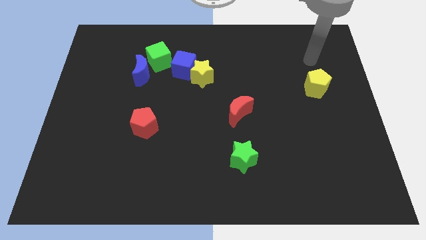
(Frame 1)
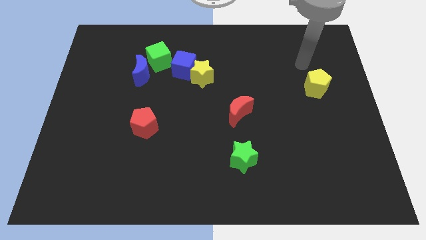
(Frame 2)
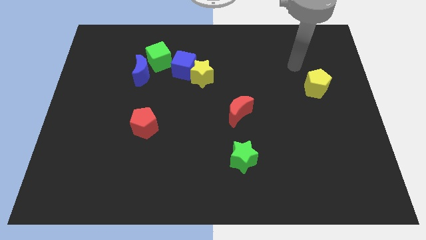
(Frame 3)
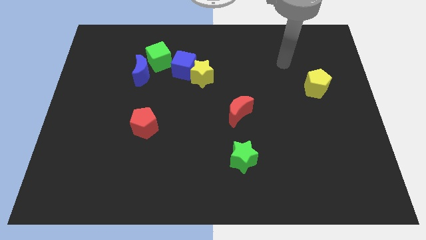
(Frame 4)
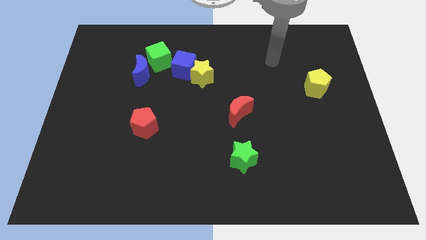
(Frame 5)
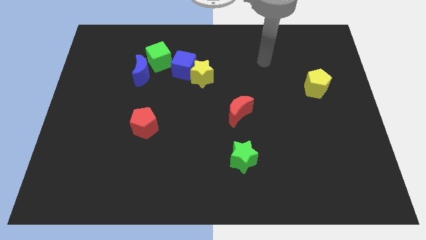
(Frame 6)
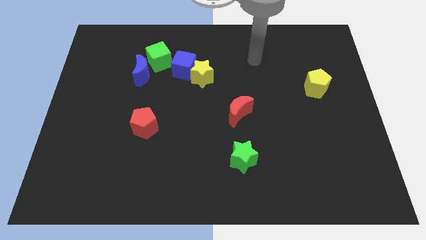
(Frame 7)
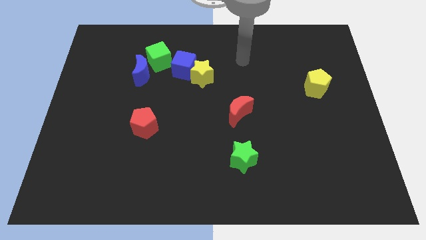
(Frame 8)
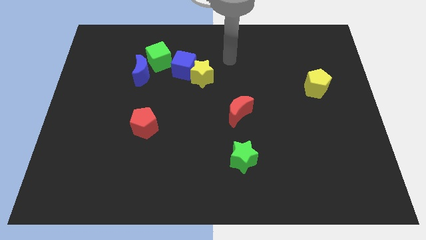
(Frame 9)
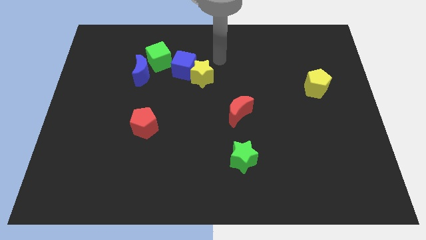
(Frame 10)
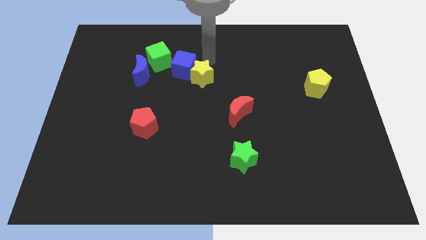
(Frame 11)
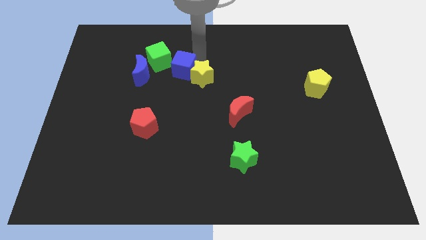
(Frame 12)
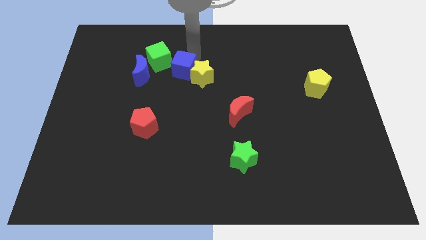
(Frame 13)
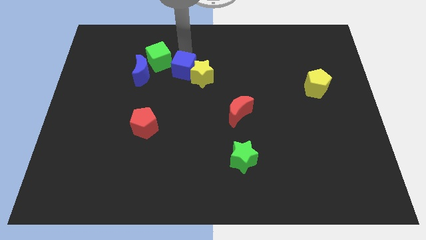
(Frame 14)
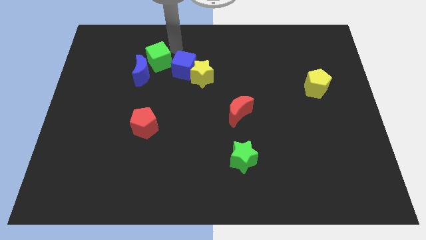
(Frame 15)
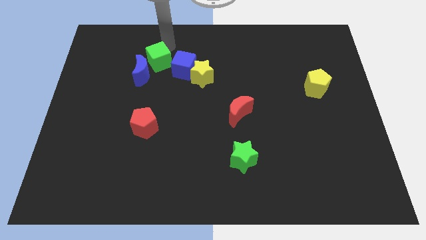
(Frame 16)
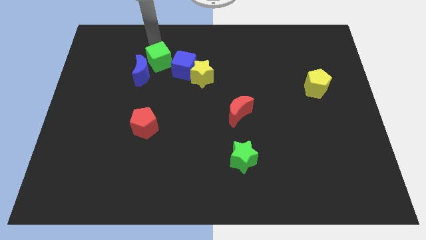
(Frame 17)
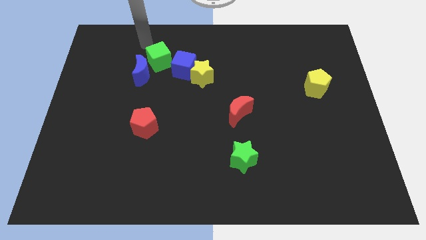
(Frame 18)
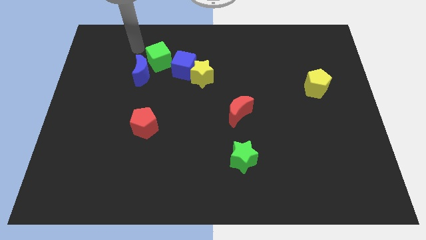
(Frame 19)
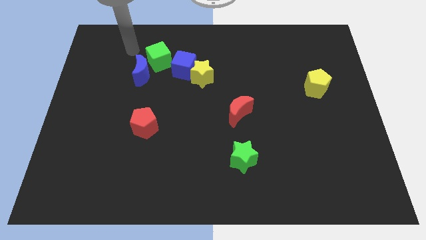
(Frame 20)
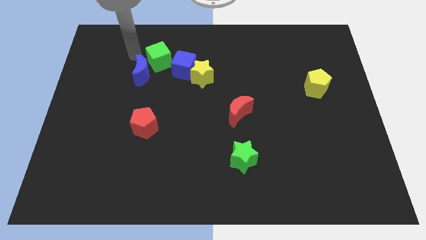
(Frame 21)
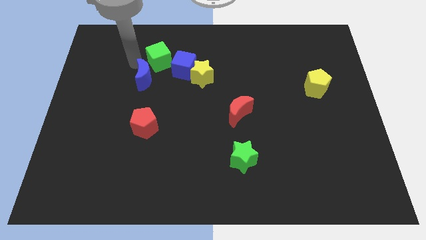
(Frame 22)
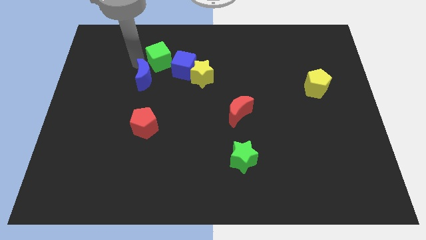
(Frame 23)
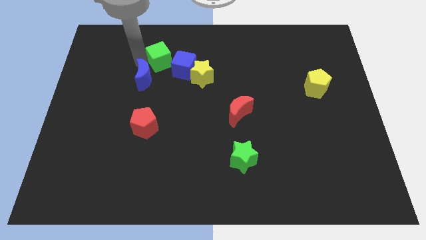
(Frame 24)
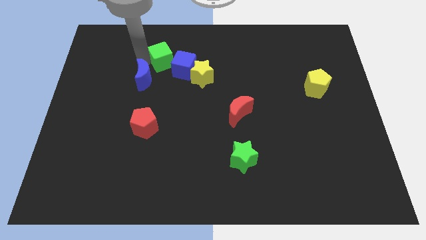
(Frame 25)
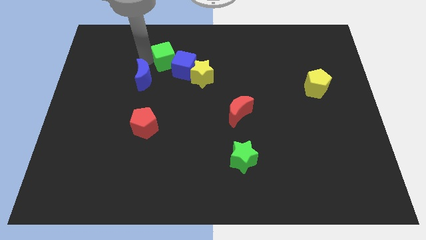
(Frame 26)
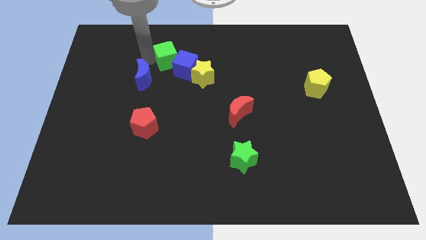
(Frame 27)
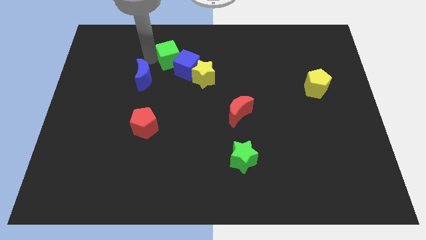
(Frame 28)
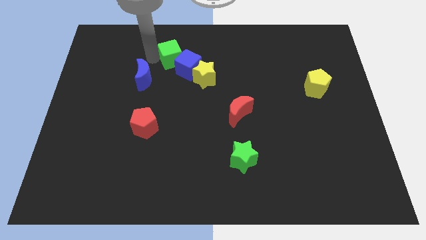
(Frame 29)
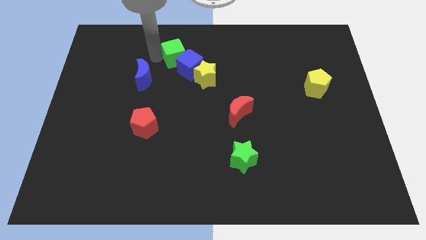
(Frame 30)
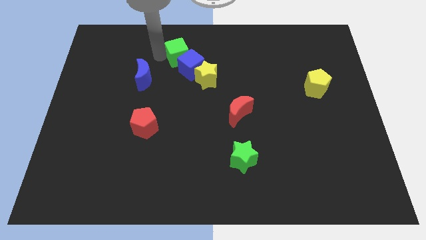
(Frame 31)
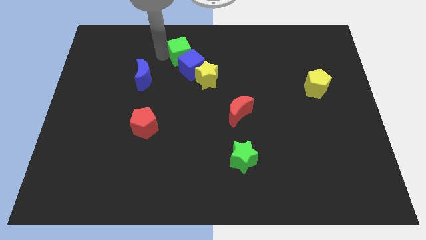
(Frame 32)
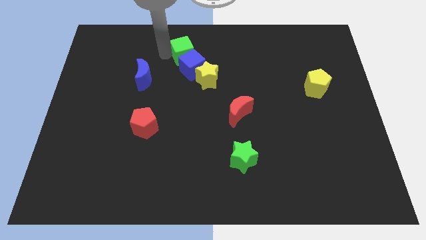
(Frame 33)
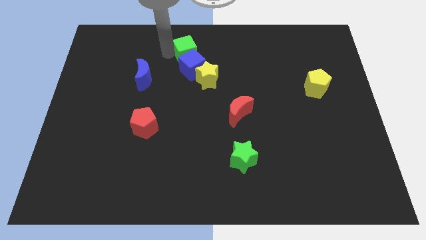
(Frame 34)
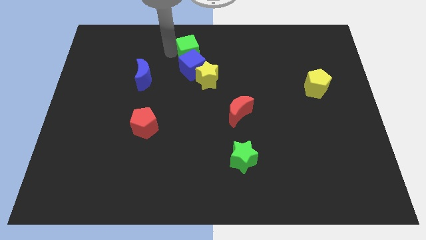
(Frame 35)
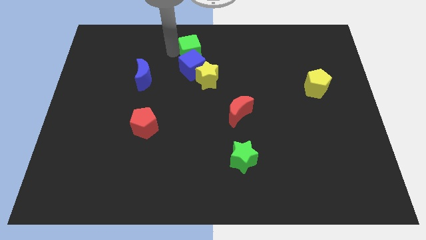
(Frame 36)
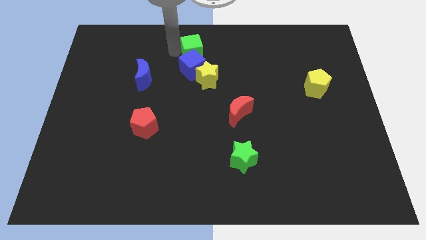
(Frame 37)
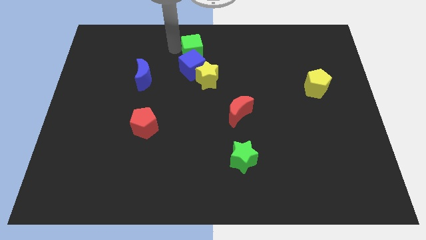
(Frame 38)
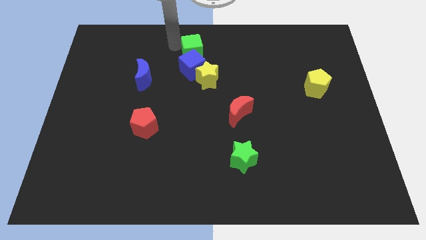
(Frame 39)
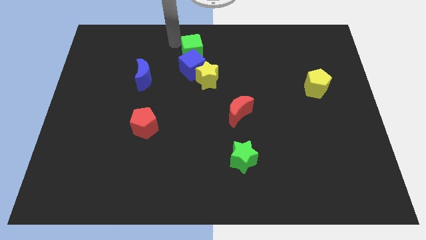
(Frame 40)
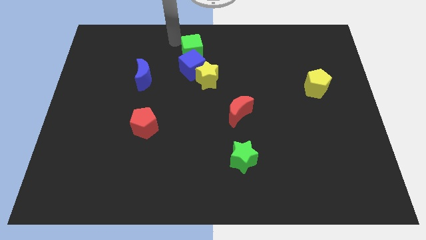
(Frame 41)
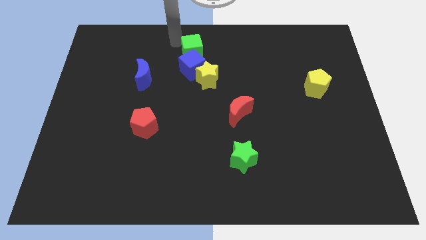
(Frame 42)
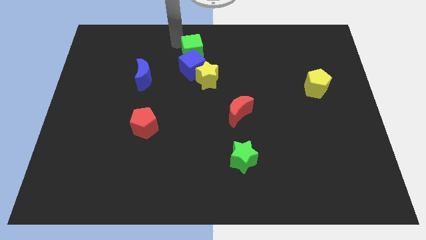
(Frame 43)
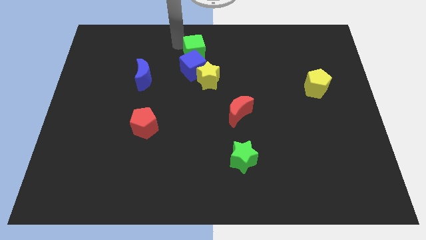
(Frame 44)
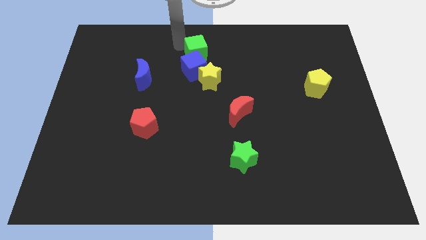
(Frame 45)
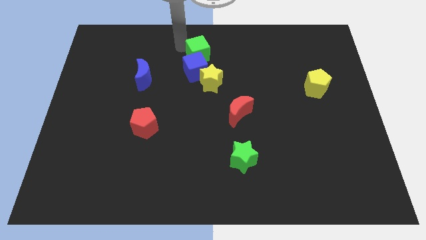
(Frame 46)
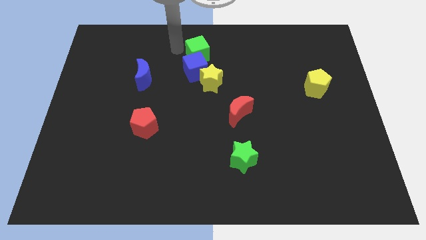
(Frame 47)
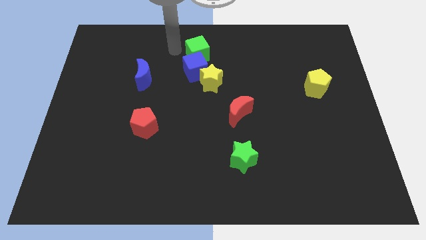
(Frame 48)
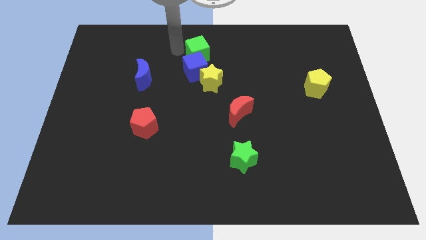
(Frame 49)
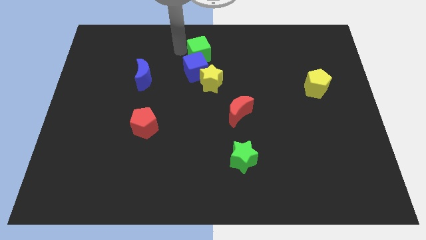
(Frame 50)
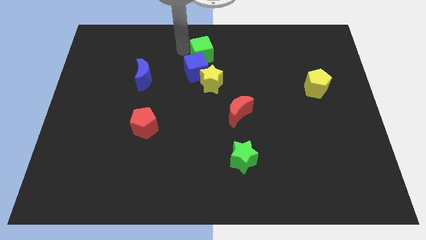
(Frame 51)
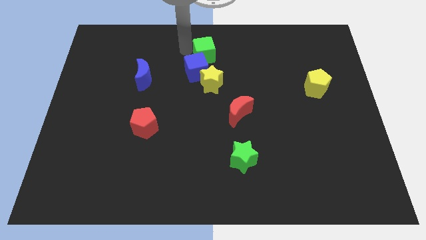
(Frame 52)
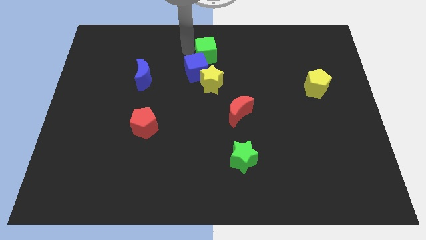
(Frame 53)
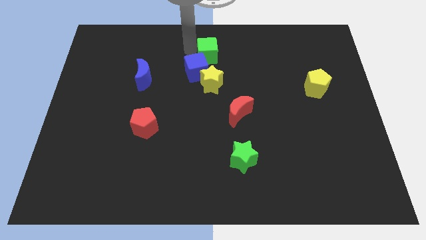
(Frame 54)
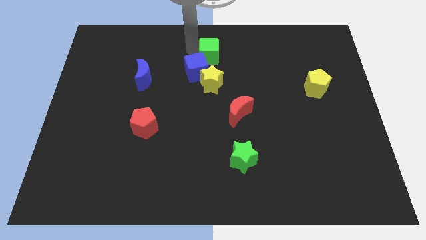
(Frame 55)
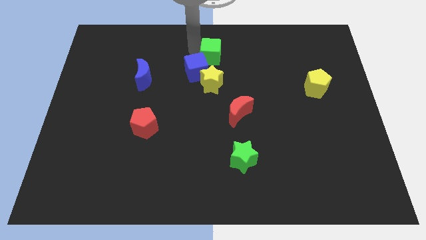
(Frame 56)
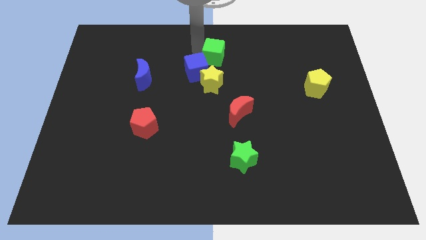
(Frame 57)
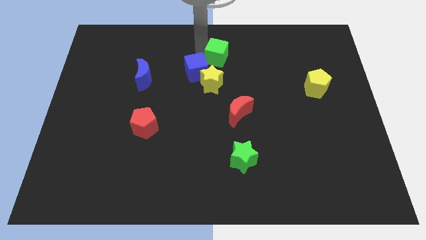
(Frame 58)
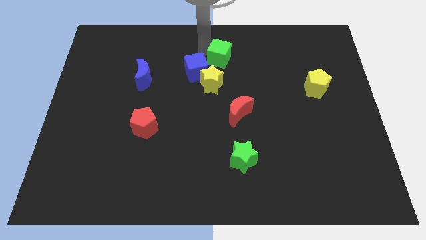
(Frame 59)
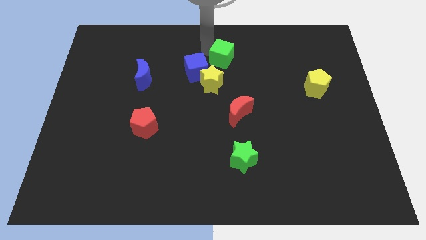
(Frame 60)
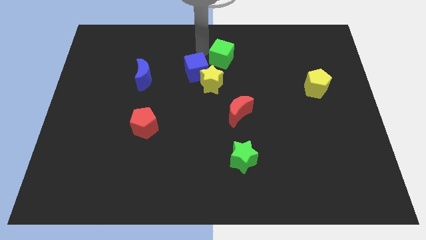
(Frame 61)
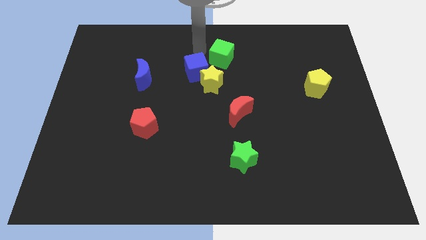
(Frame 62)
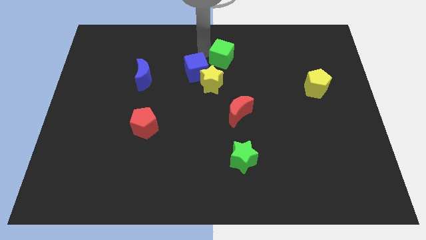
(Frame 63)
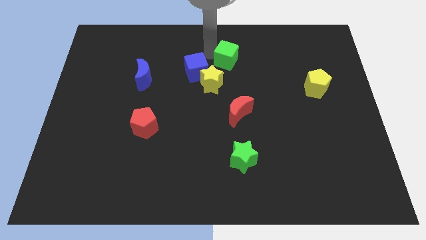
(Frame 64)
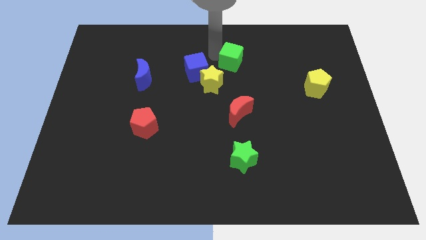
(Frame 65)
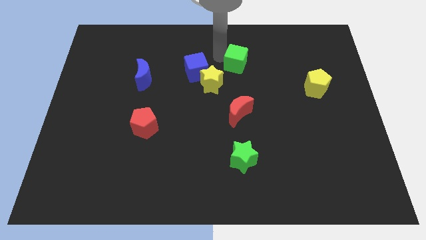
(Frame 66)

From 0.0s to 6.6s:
move the green cube to the right

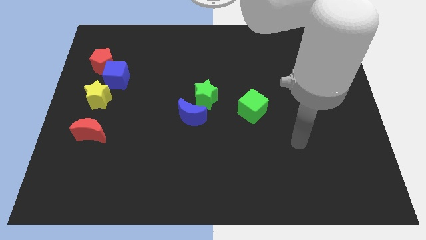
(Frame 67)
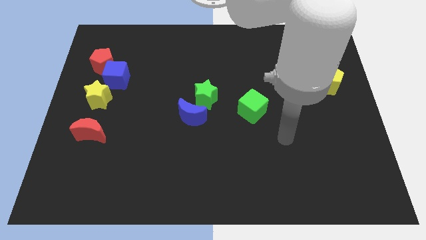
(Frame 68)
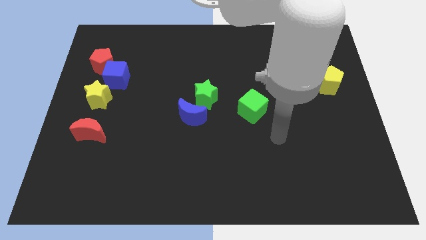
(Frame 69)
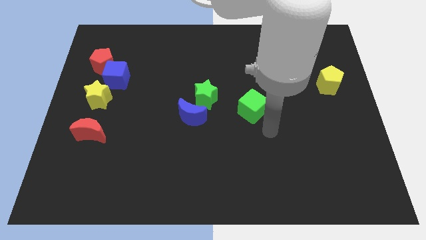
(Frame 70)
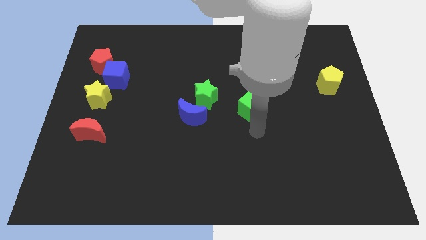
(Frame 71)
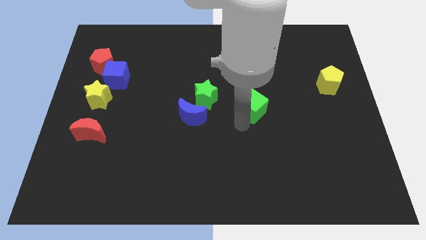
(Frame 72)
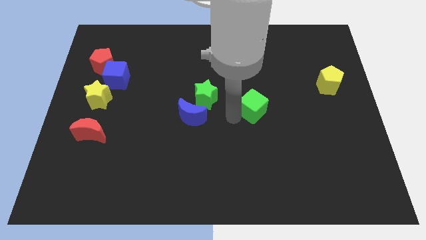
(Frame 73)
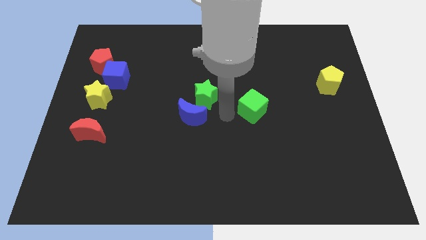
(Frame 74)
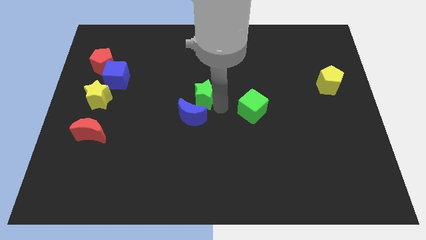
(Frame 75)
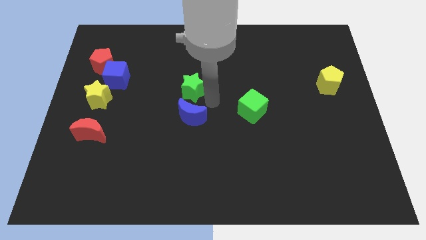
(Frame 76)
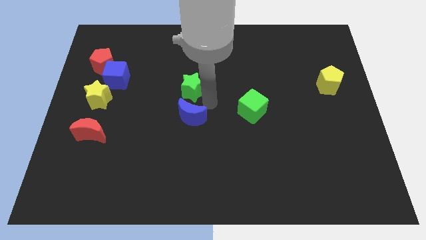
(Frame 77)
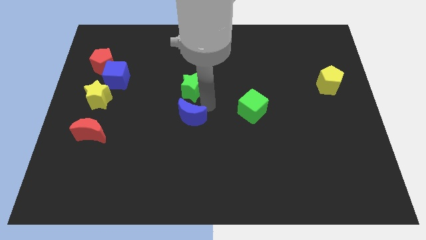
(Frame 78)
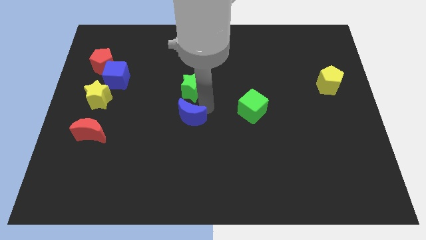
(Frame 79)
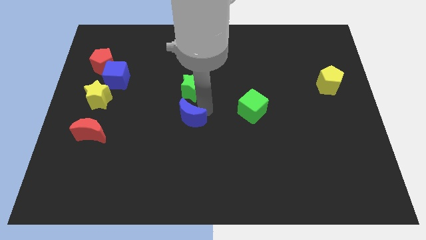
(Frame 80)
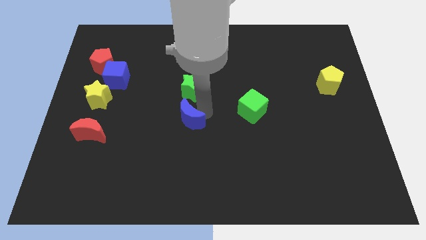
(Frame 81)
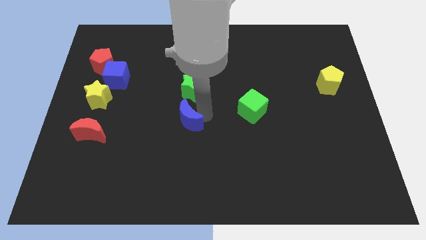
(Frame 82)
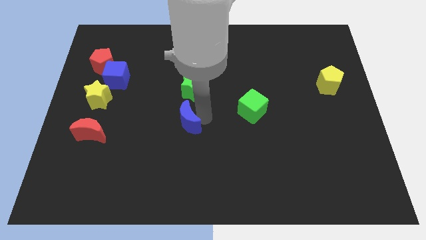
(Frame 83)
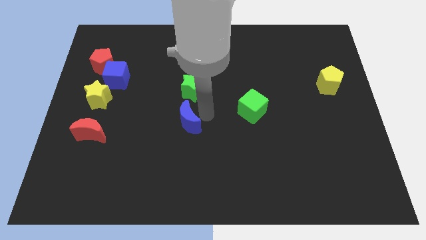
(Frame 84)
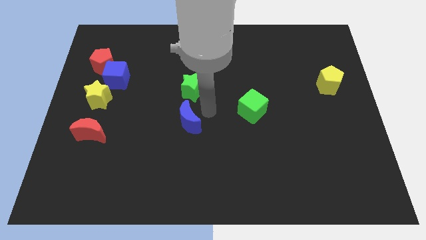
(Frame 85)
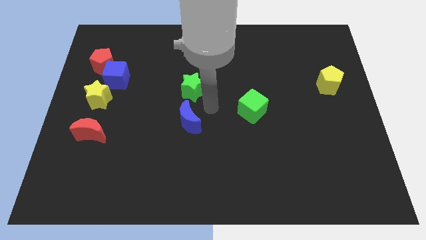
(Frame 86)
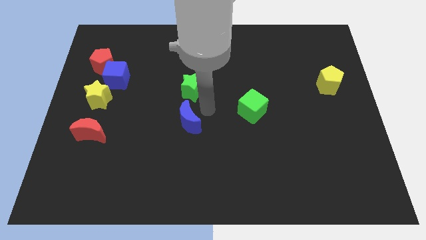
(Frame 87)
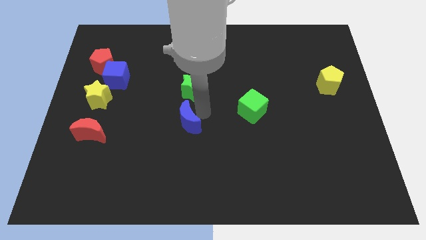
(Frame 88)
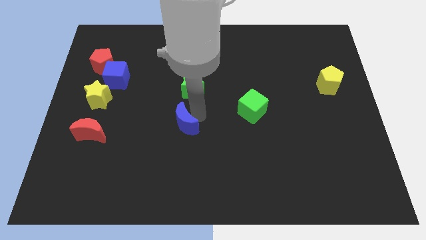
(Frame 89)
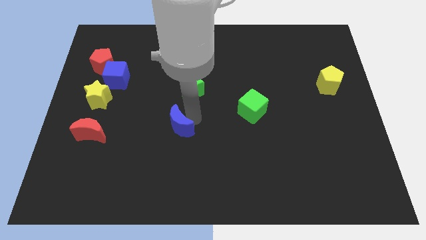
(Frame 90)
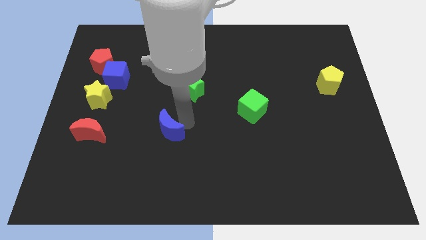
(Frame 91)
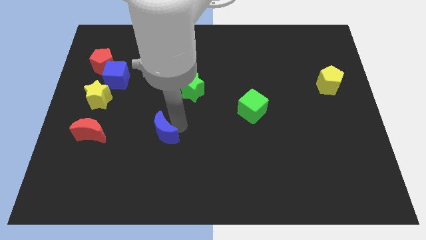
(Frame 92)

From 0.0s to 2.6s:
push the blue moon a little downwards and then to the left
